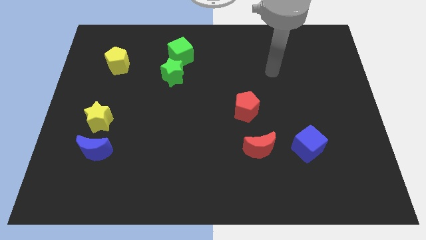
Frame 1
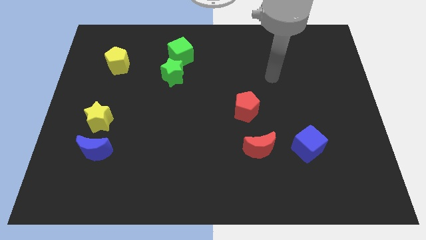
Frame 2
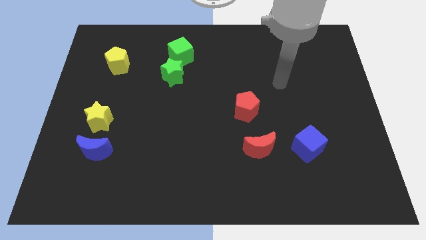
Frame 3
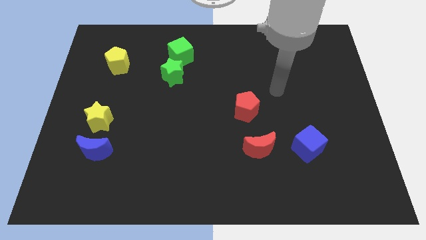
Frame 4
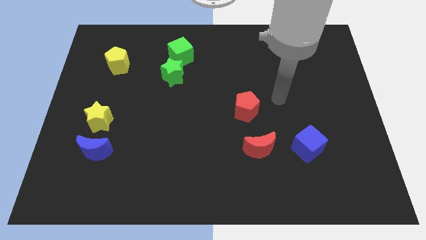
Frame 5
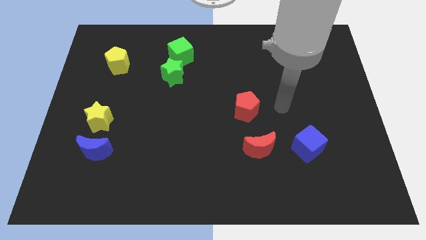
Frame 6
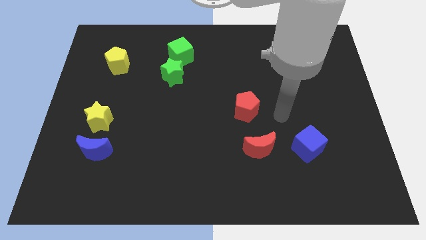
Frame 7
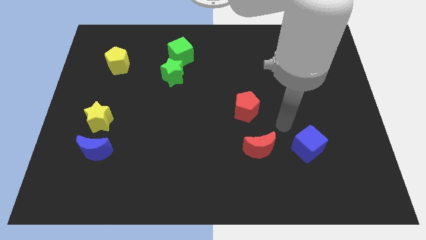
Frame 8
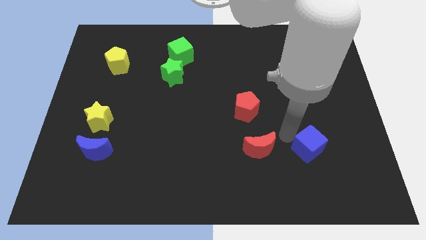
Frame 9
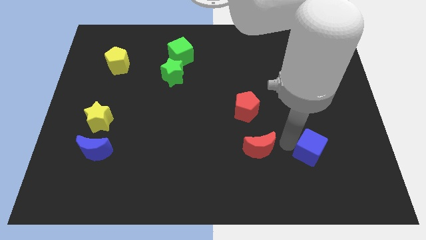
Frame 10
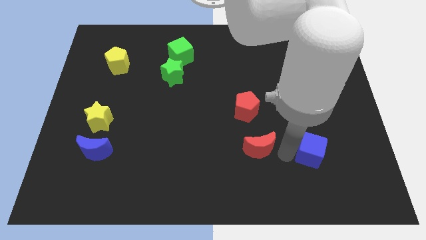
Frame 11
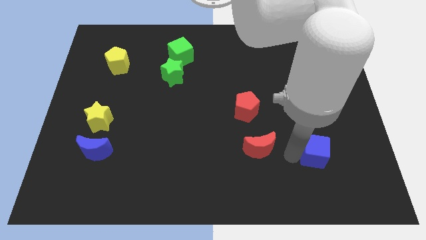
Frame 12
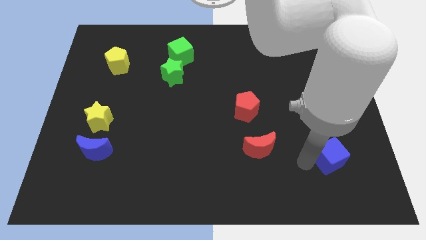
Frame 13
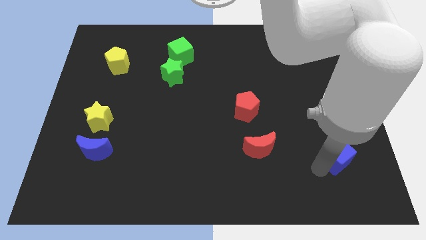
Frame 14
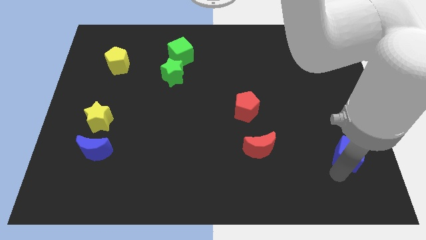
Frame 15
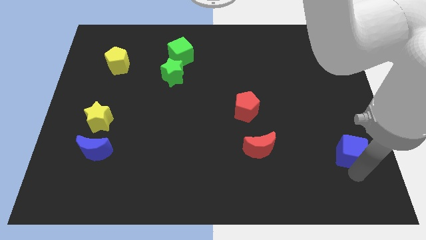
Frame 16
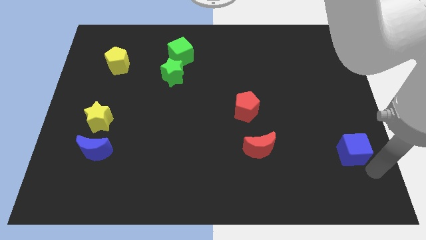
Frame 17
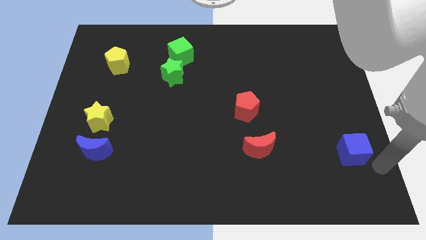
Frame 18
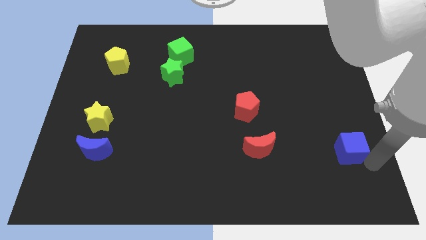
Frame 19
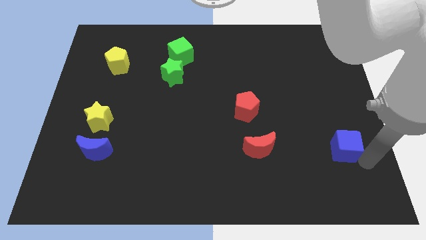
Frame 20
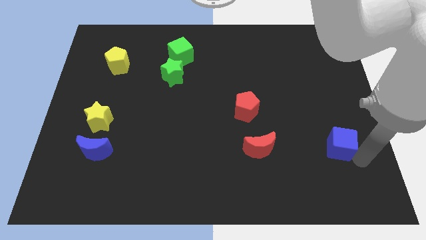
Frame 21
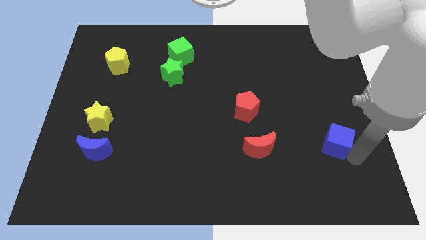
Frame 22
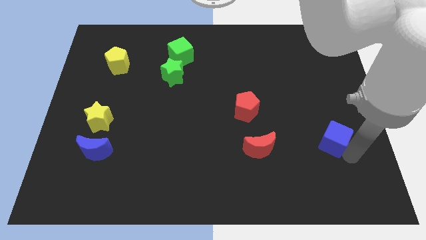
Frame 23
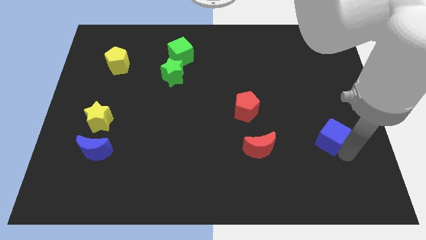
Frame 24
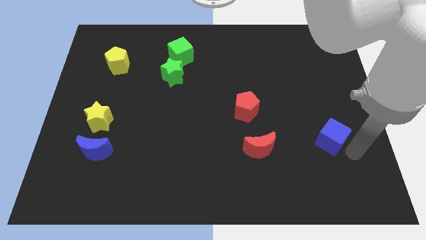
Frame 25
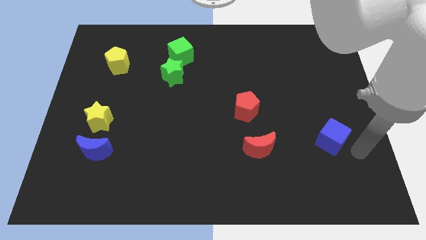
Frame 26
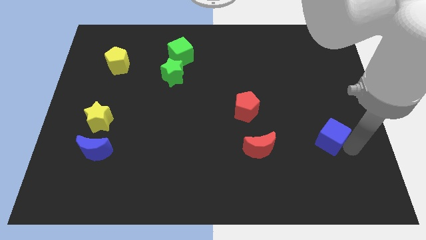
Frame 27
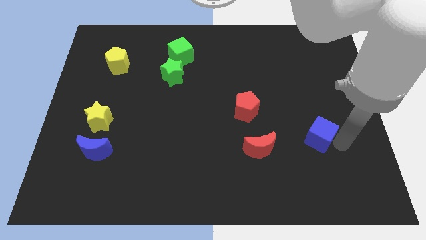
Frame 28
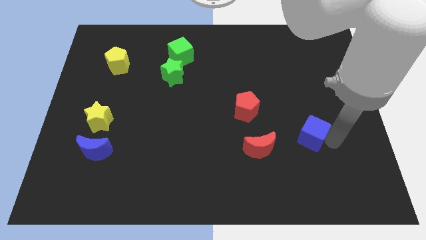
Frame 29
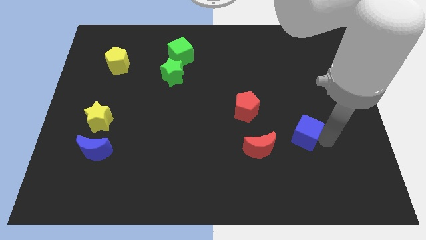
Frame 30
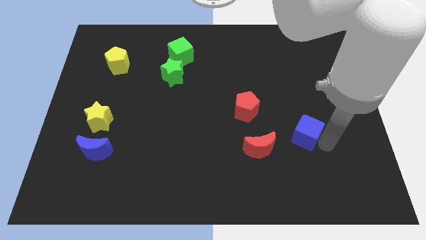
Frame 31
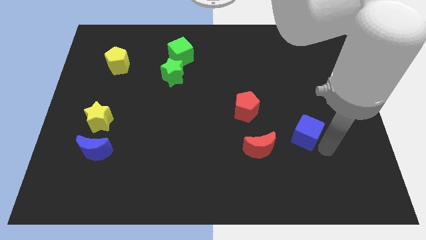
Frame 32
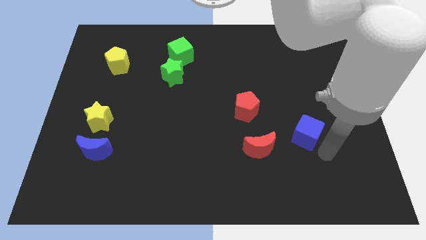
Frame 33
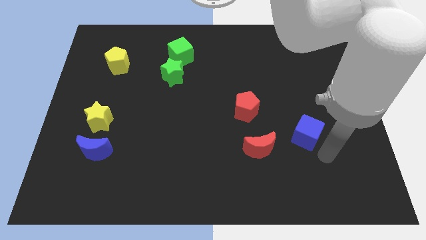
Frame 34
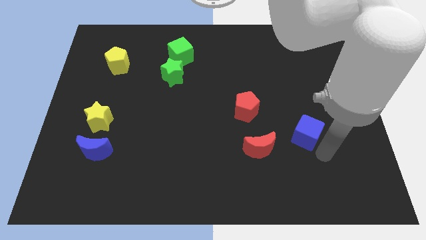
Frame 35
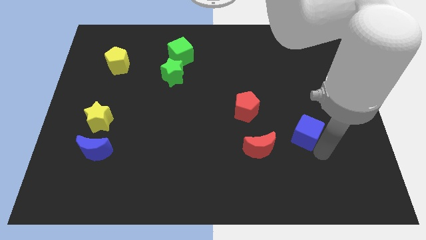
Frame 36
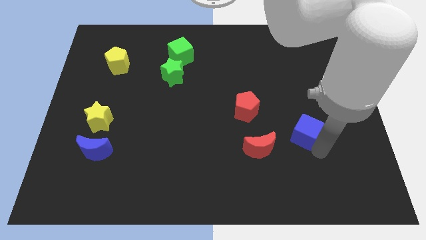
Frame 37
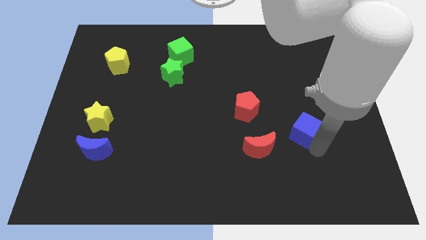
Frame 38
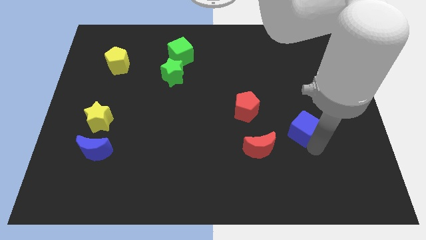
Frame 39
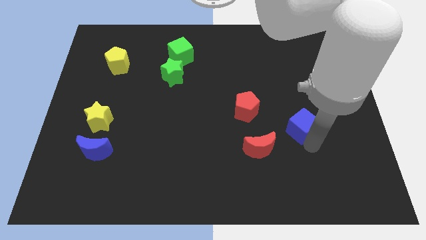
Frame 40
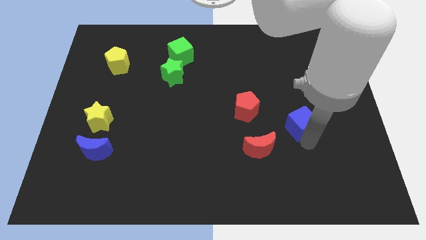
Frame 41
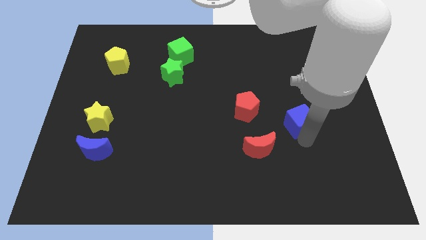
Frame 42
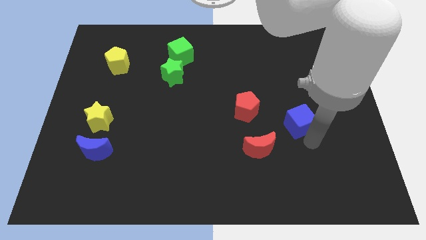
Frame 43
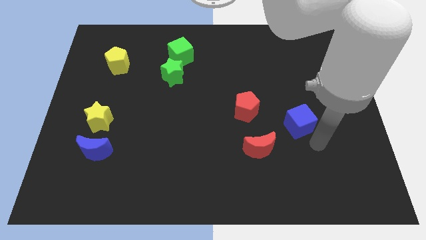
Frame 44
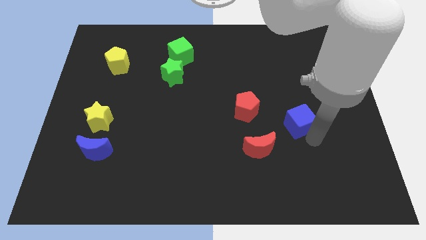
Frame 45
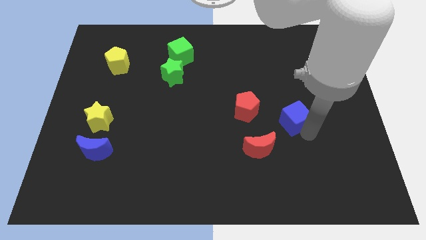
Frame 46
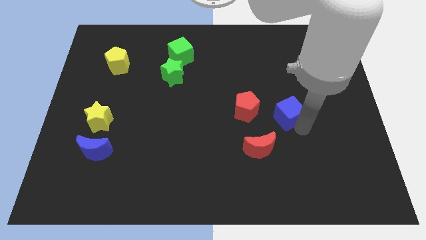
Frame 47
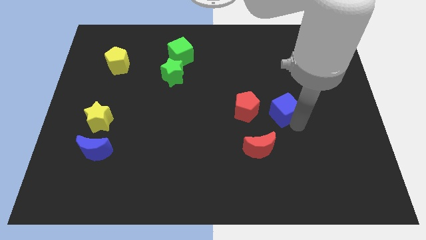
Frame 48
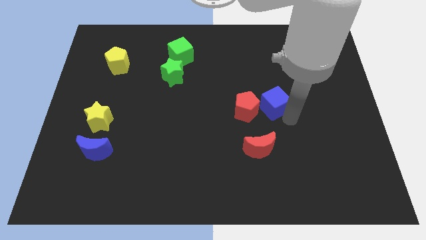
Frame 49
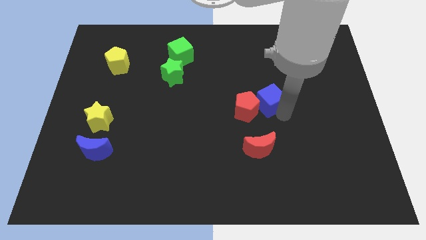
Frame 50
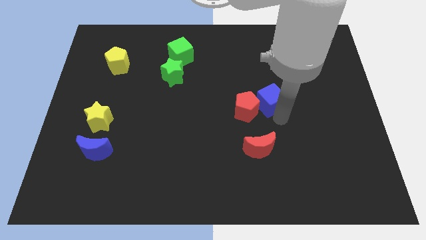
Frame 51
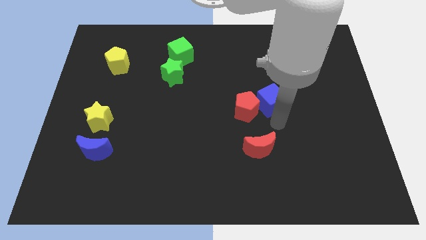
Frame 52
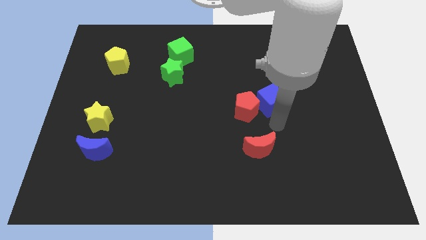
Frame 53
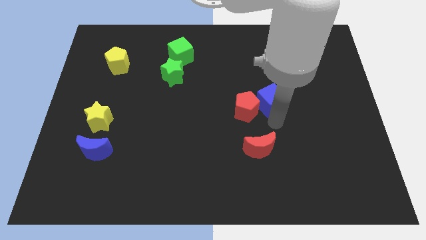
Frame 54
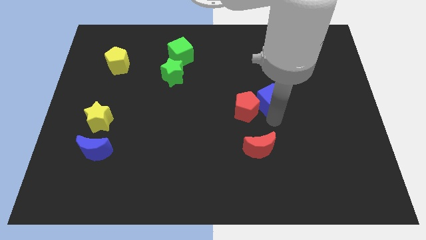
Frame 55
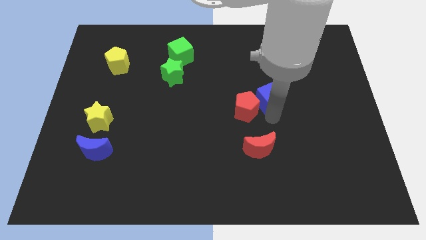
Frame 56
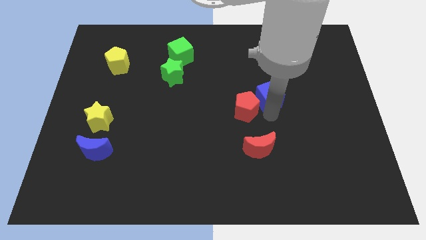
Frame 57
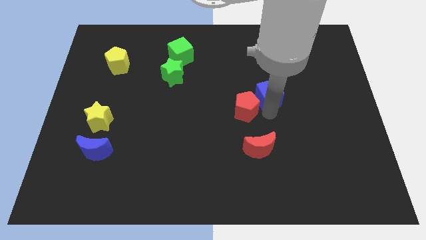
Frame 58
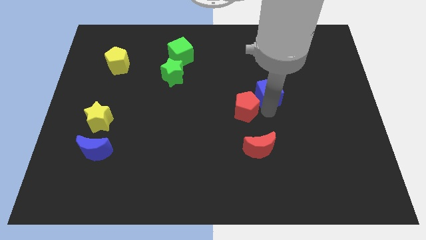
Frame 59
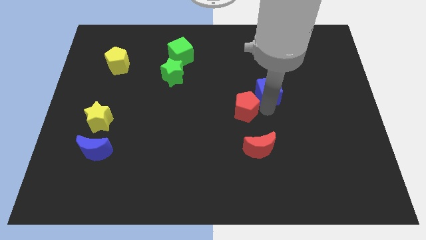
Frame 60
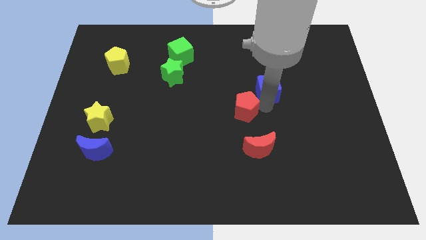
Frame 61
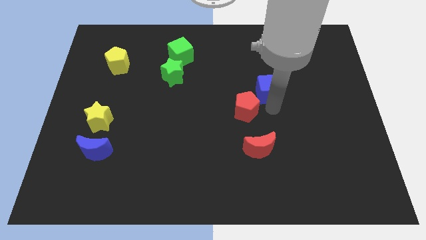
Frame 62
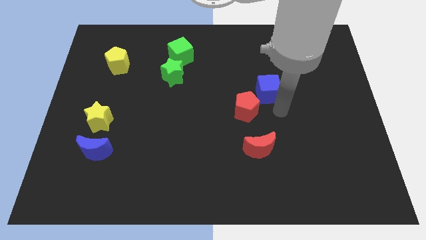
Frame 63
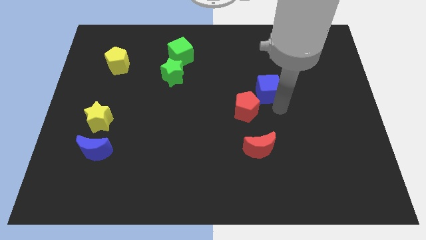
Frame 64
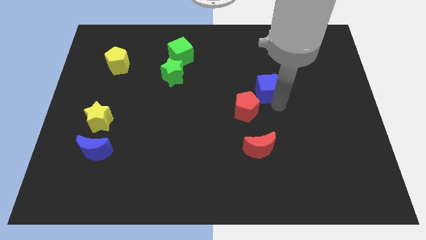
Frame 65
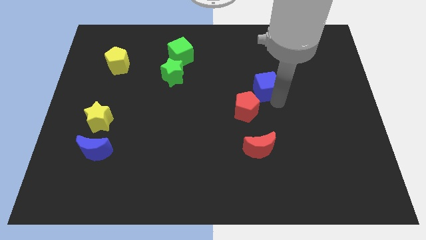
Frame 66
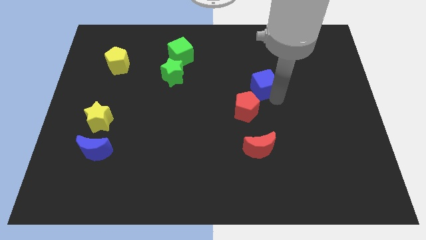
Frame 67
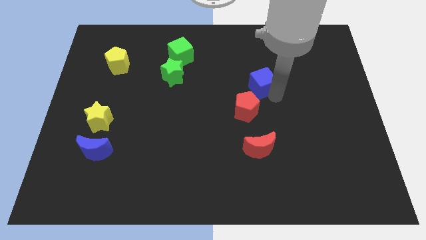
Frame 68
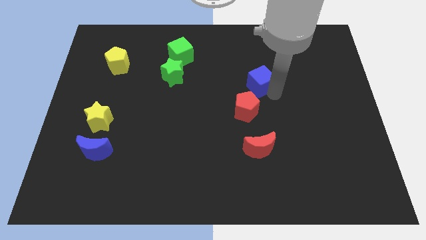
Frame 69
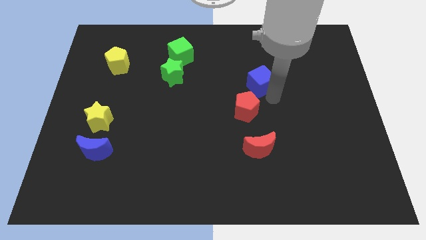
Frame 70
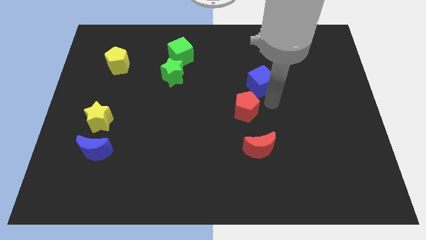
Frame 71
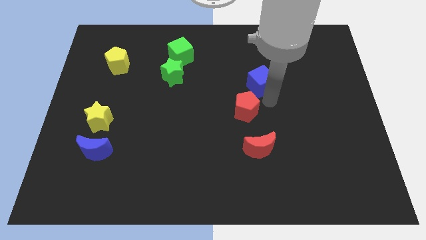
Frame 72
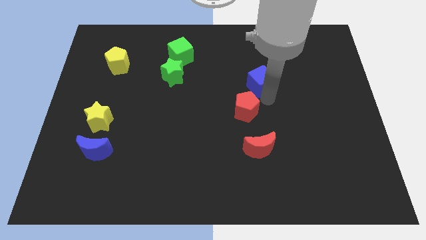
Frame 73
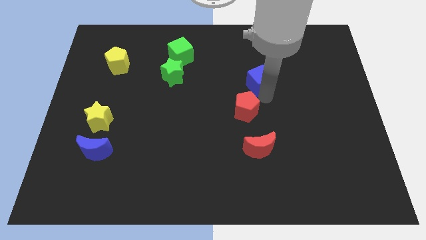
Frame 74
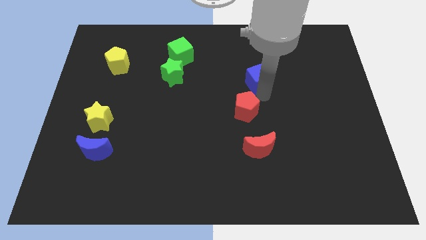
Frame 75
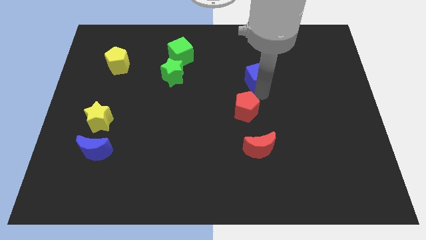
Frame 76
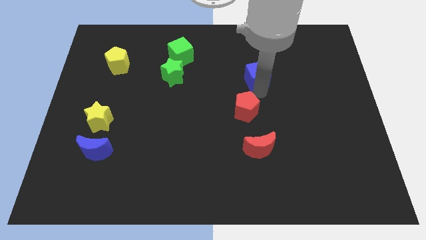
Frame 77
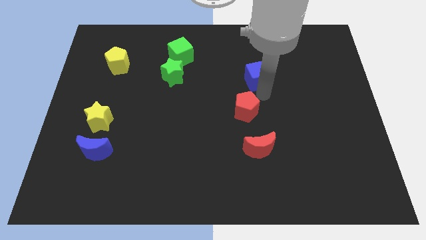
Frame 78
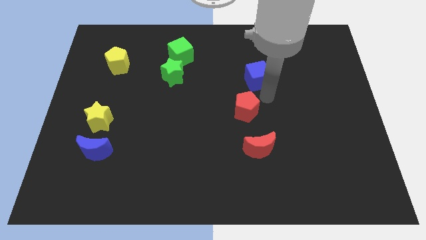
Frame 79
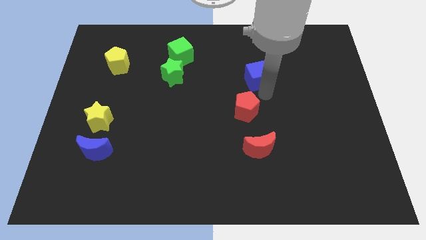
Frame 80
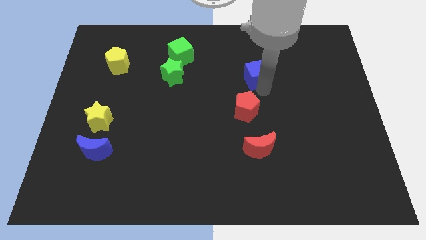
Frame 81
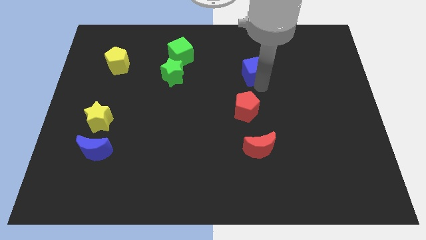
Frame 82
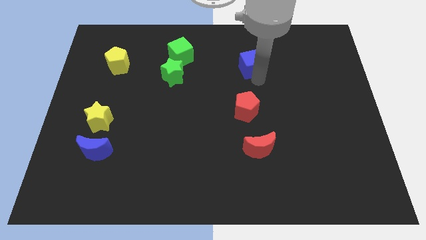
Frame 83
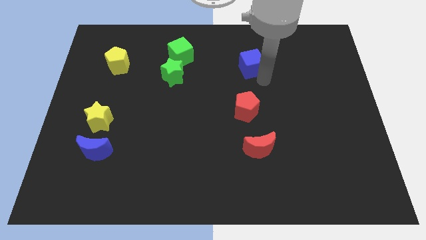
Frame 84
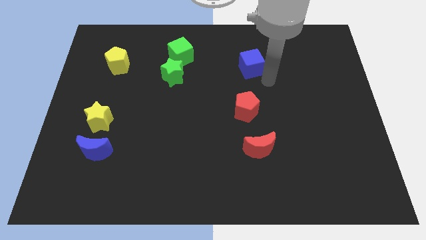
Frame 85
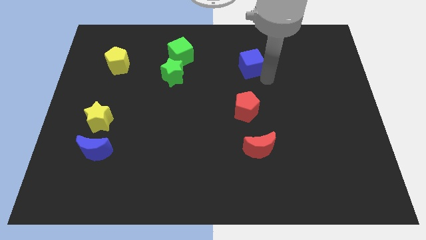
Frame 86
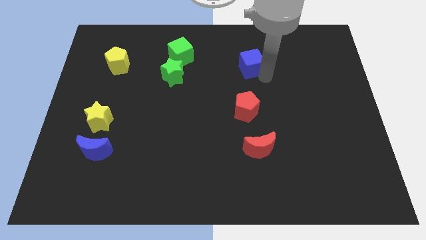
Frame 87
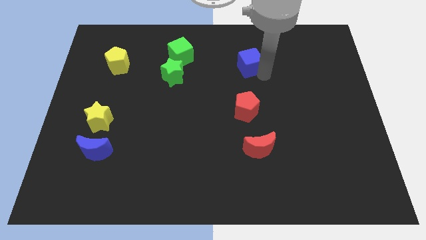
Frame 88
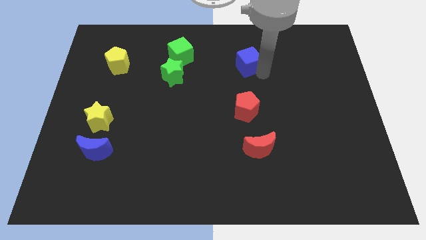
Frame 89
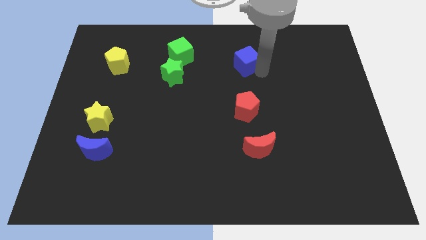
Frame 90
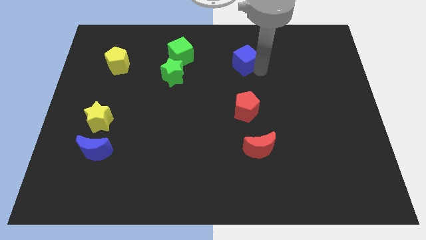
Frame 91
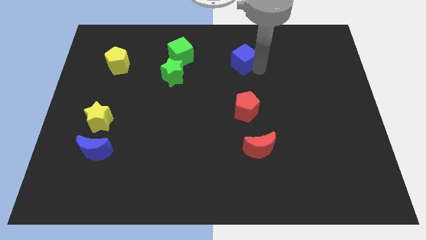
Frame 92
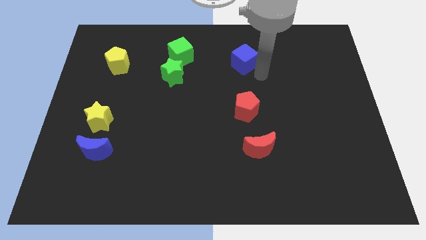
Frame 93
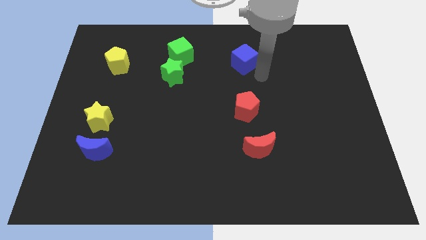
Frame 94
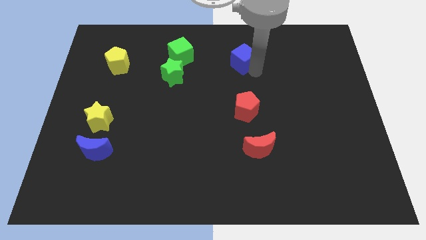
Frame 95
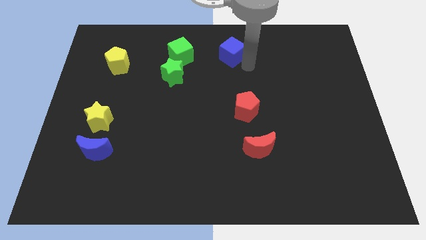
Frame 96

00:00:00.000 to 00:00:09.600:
move the blue cube to the top
